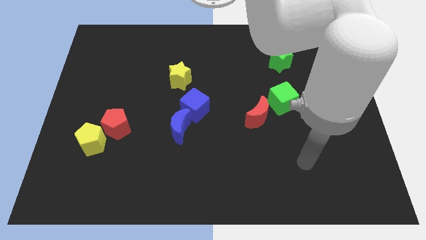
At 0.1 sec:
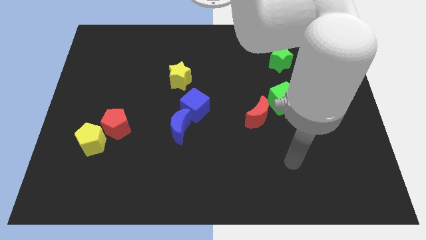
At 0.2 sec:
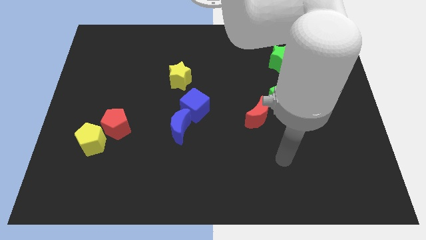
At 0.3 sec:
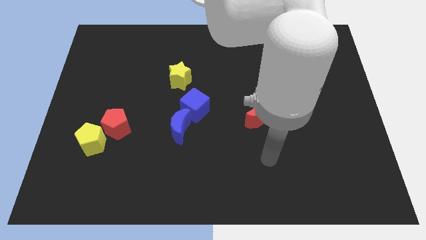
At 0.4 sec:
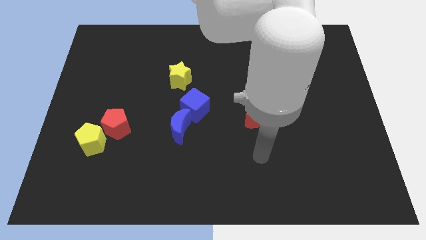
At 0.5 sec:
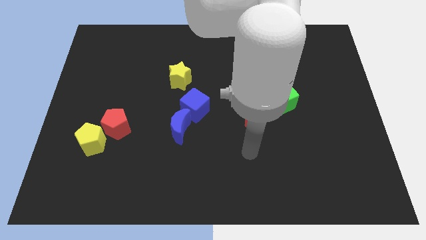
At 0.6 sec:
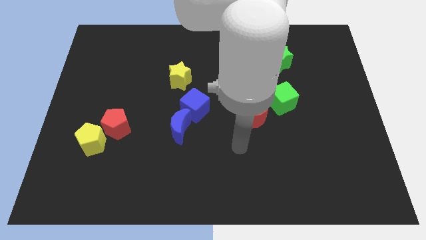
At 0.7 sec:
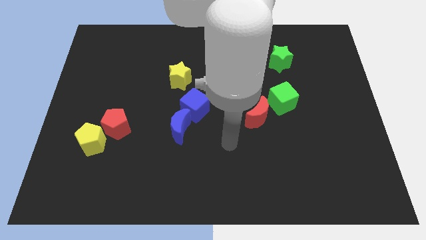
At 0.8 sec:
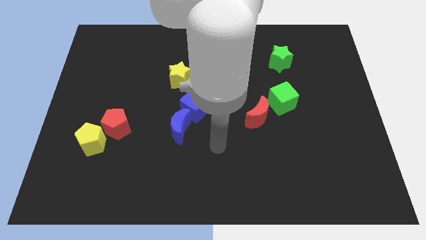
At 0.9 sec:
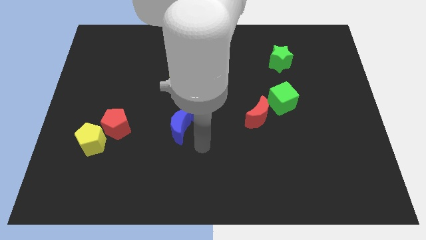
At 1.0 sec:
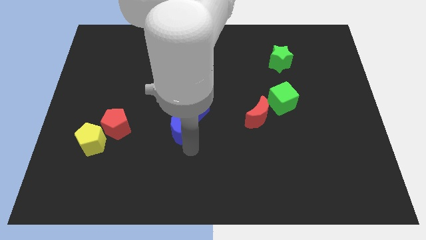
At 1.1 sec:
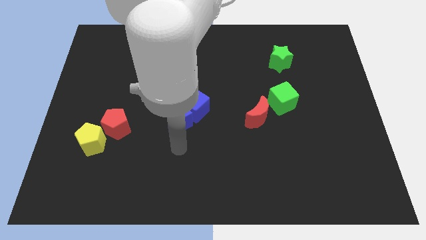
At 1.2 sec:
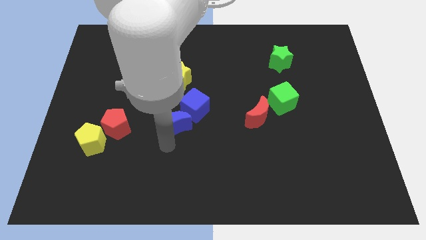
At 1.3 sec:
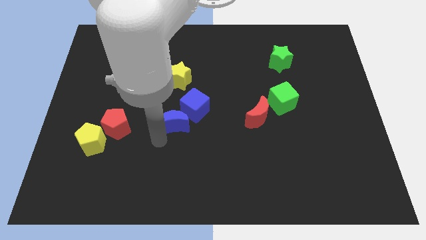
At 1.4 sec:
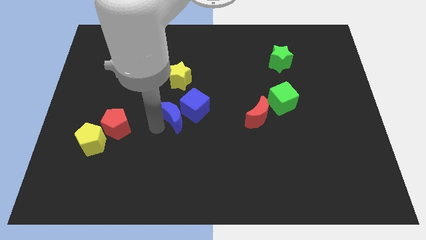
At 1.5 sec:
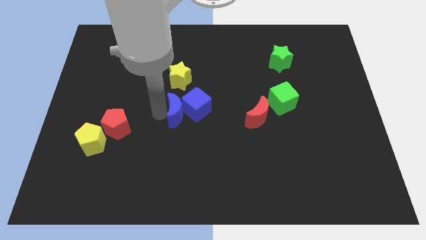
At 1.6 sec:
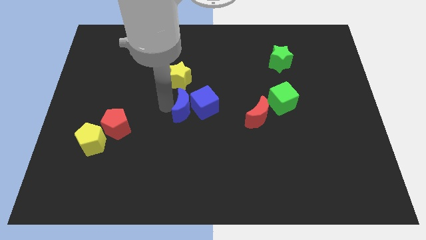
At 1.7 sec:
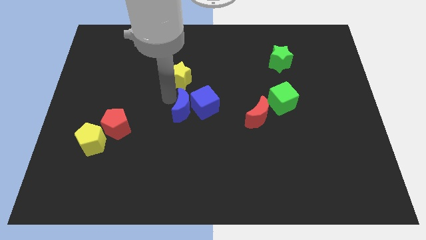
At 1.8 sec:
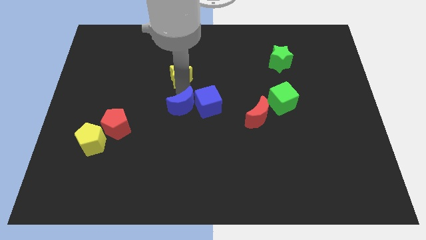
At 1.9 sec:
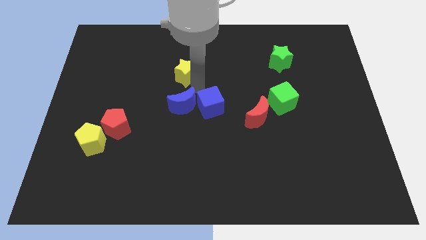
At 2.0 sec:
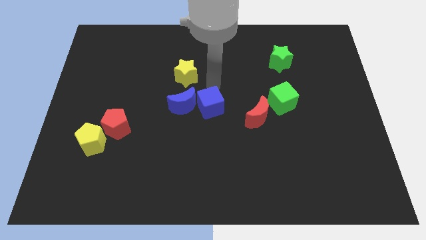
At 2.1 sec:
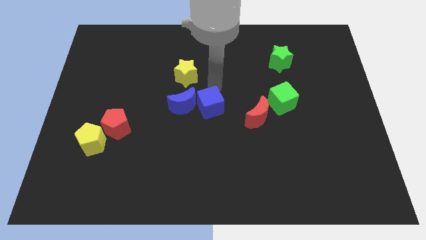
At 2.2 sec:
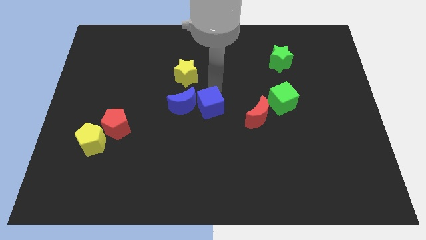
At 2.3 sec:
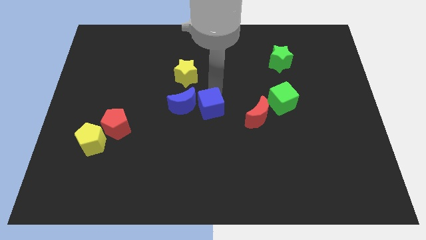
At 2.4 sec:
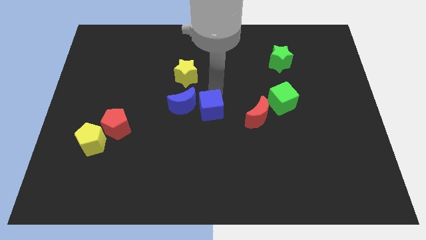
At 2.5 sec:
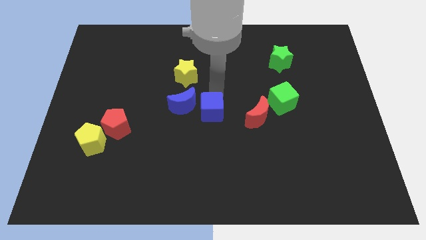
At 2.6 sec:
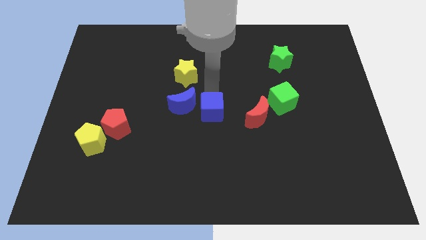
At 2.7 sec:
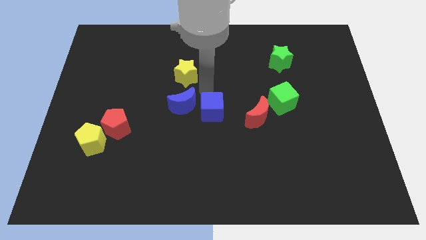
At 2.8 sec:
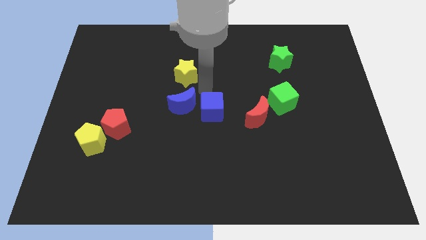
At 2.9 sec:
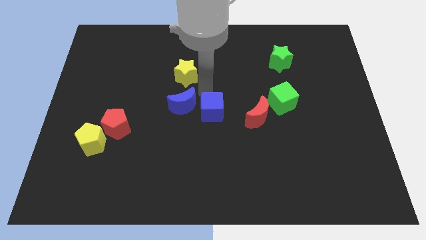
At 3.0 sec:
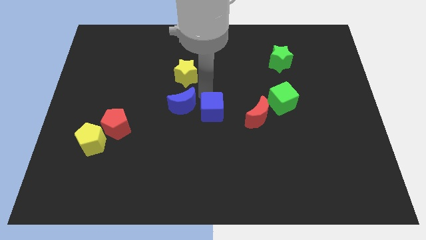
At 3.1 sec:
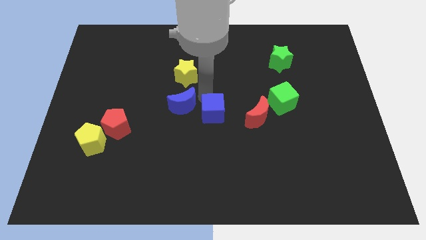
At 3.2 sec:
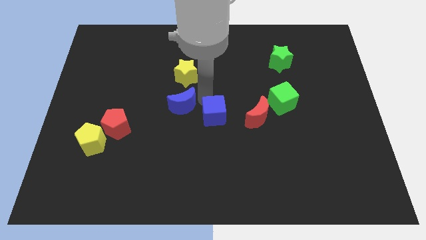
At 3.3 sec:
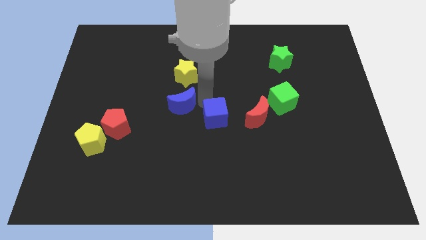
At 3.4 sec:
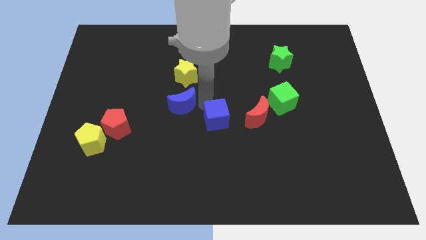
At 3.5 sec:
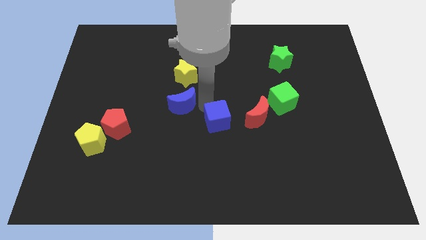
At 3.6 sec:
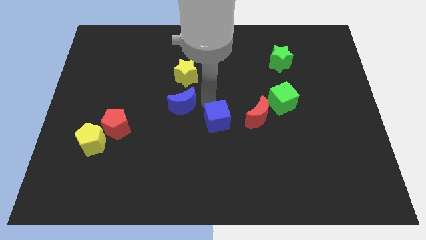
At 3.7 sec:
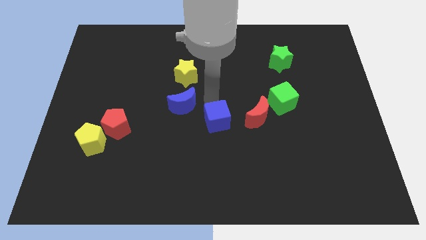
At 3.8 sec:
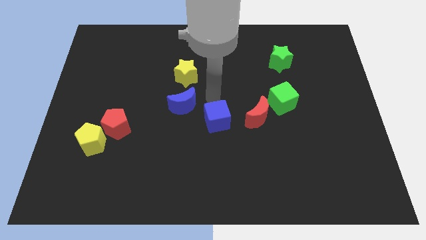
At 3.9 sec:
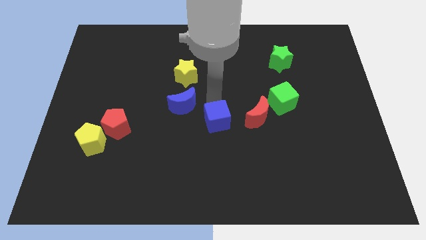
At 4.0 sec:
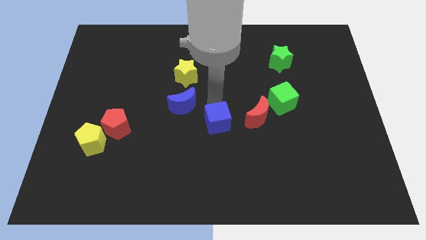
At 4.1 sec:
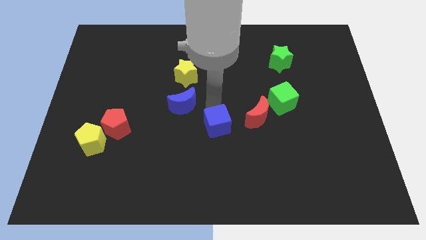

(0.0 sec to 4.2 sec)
slide the blue cube downwards and then to the right a little

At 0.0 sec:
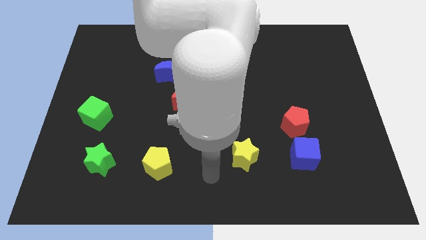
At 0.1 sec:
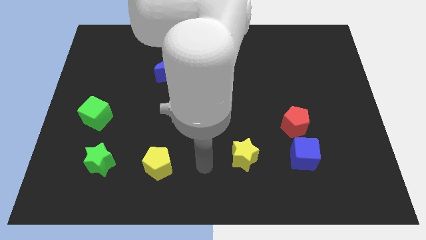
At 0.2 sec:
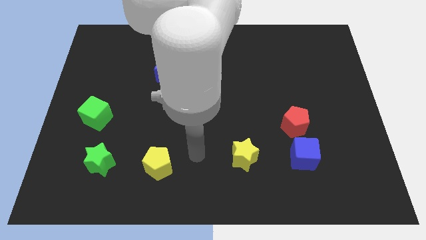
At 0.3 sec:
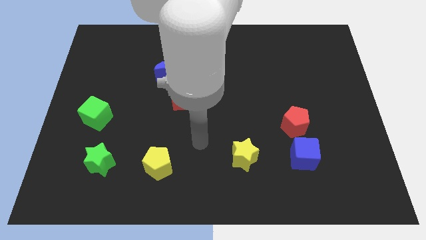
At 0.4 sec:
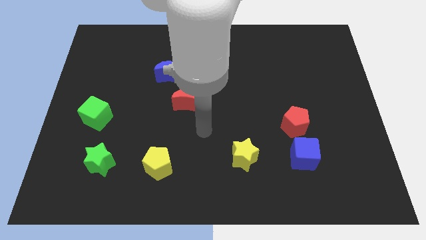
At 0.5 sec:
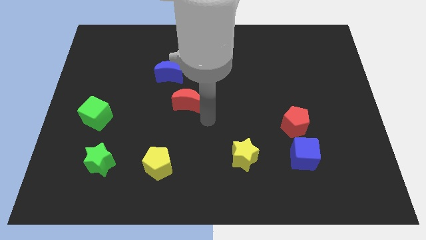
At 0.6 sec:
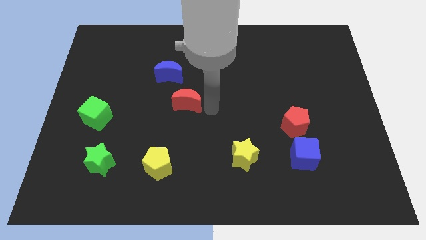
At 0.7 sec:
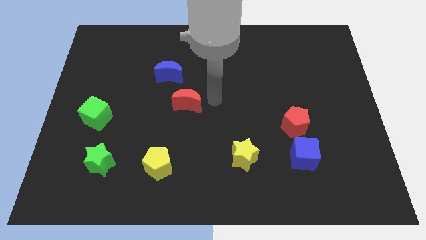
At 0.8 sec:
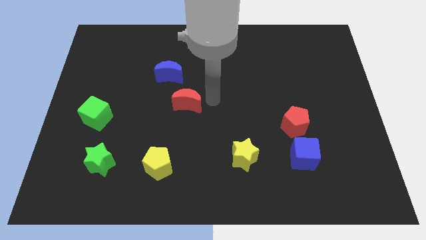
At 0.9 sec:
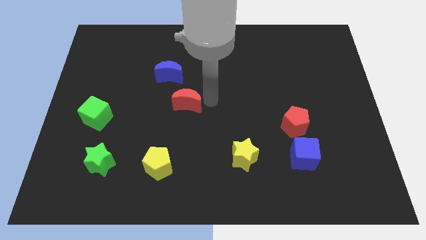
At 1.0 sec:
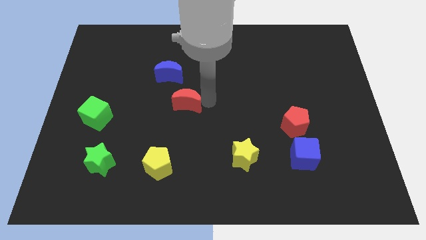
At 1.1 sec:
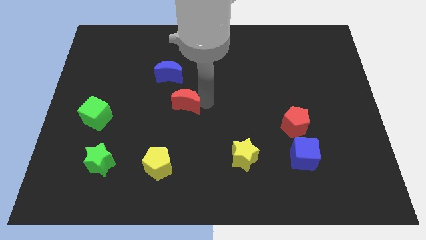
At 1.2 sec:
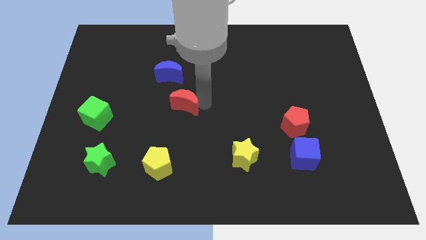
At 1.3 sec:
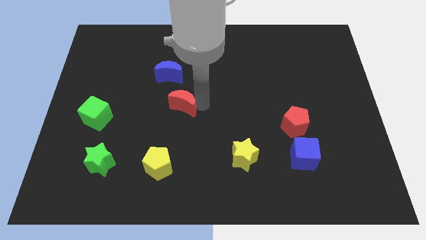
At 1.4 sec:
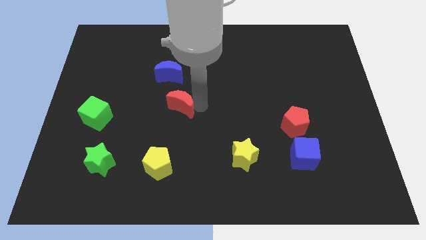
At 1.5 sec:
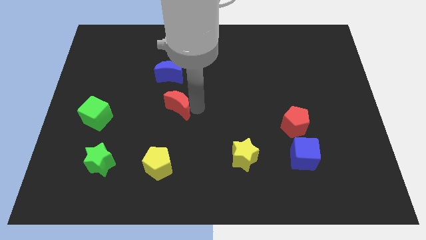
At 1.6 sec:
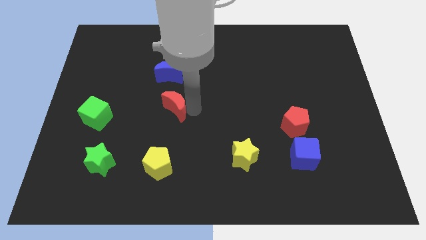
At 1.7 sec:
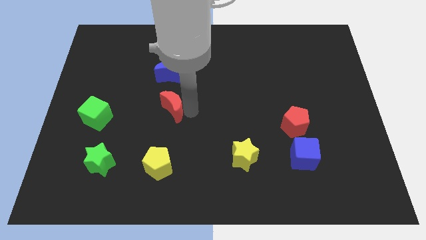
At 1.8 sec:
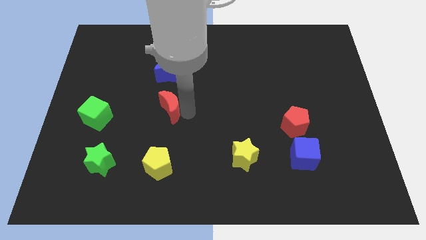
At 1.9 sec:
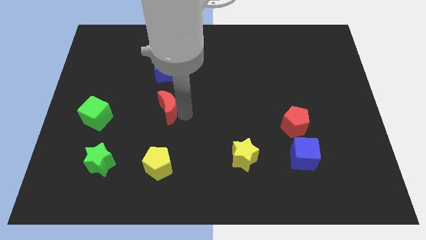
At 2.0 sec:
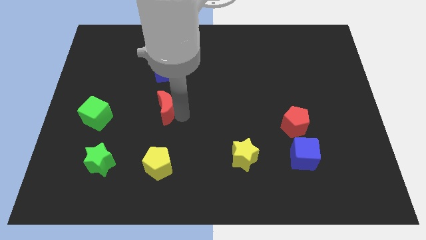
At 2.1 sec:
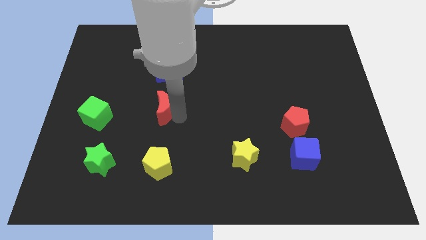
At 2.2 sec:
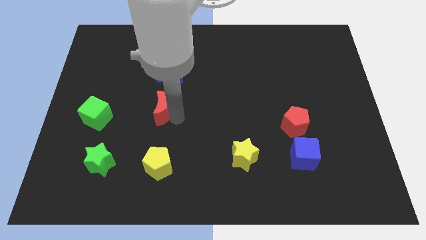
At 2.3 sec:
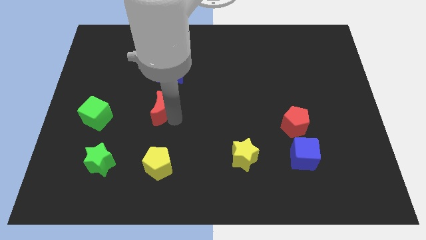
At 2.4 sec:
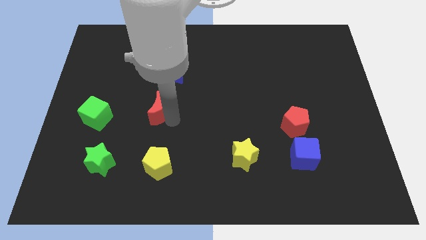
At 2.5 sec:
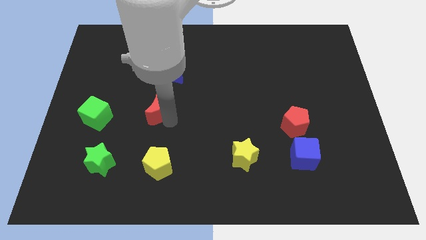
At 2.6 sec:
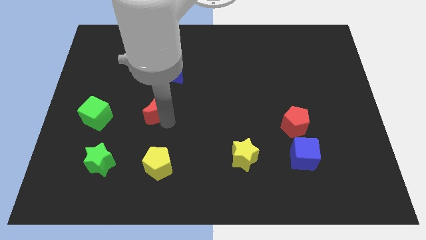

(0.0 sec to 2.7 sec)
move the red moon somewhat to the left

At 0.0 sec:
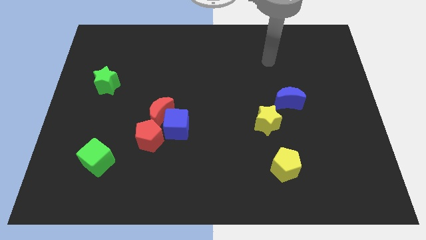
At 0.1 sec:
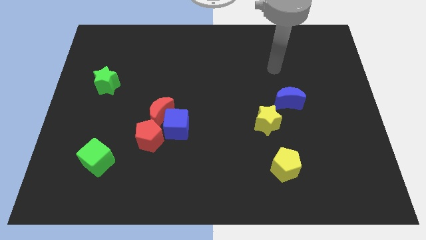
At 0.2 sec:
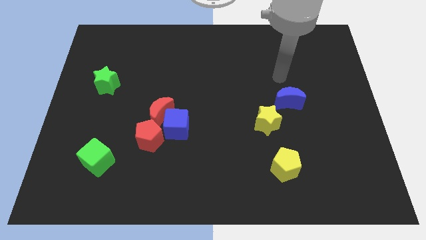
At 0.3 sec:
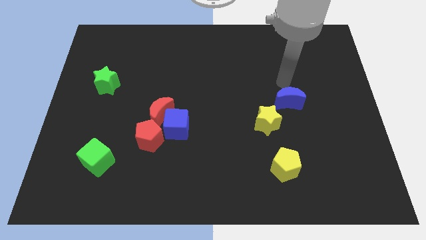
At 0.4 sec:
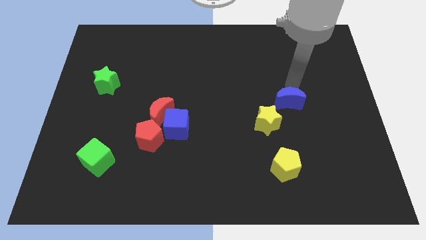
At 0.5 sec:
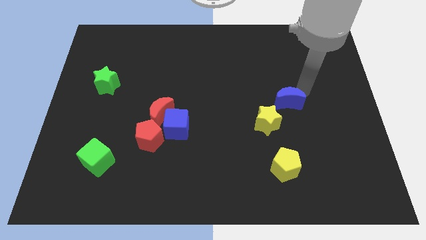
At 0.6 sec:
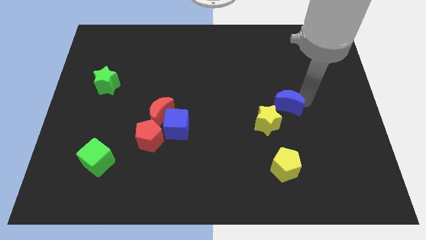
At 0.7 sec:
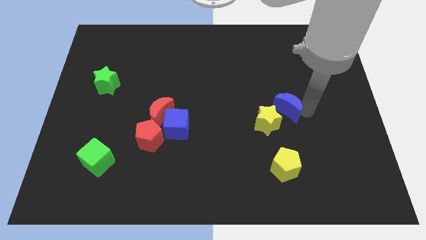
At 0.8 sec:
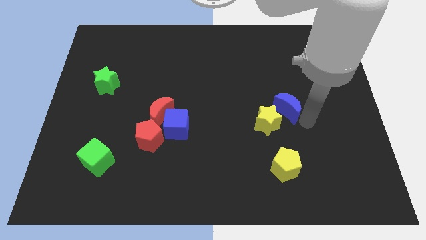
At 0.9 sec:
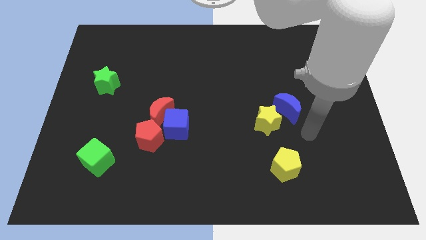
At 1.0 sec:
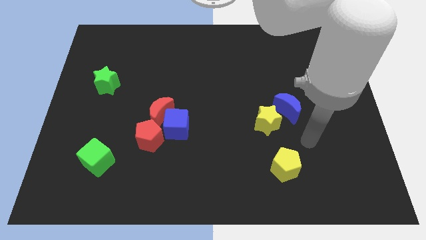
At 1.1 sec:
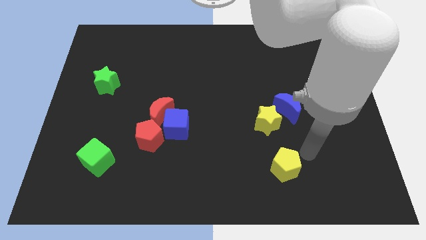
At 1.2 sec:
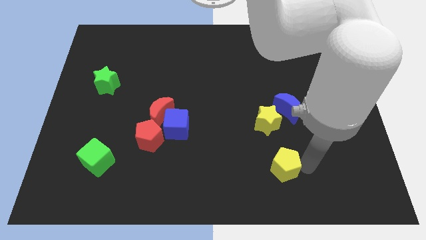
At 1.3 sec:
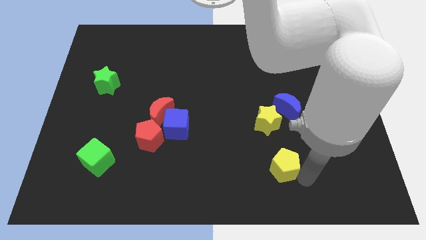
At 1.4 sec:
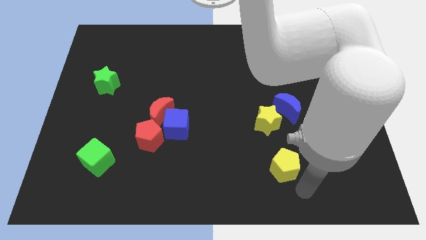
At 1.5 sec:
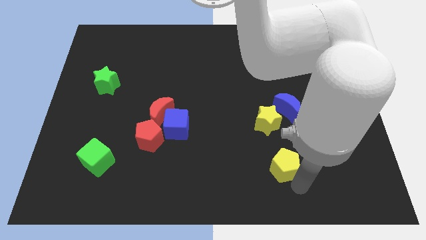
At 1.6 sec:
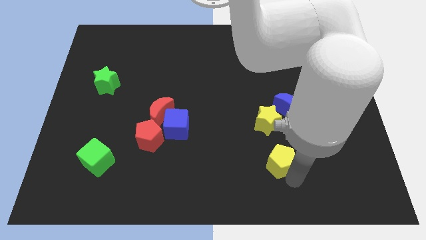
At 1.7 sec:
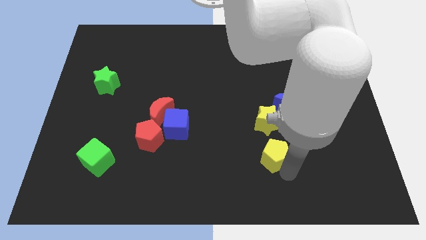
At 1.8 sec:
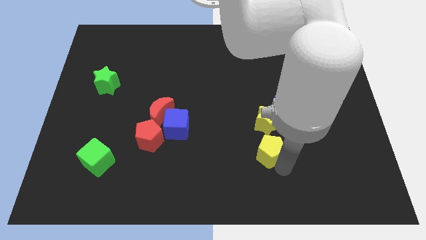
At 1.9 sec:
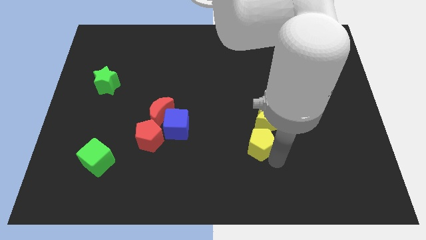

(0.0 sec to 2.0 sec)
slightly slide the yellow pentagon up and to the left diagonally
